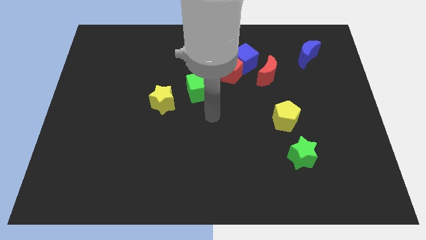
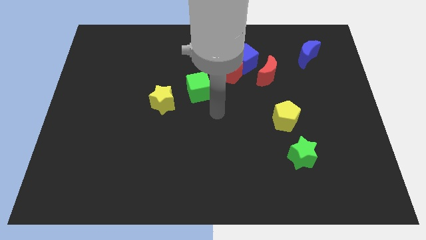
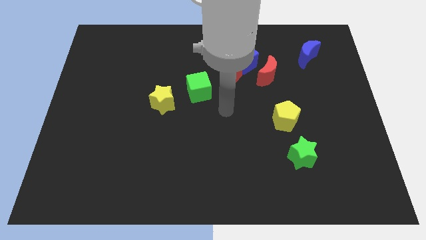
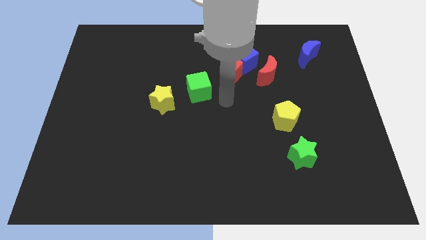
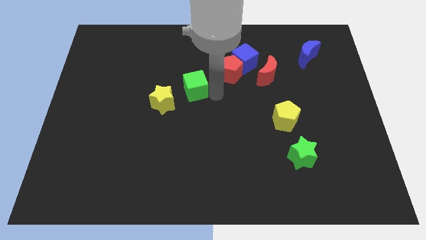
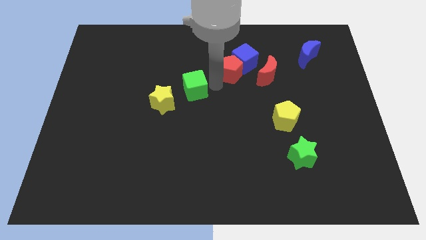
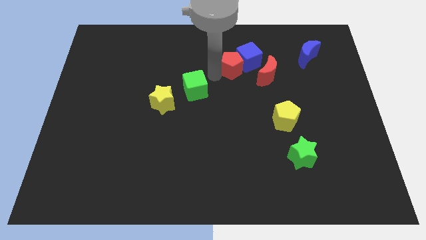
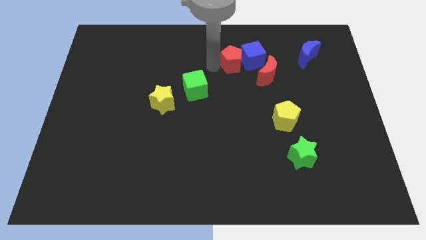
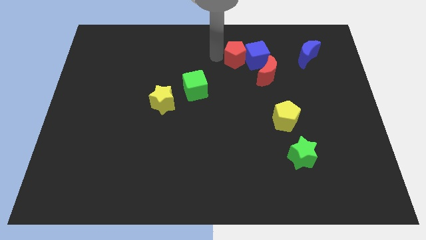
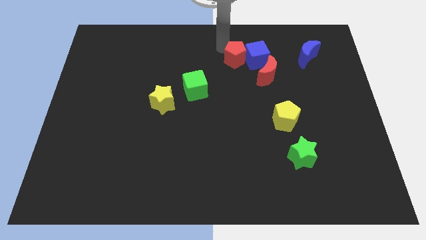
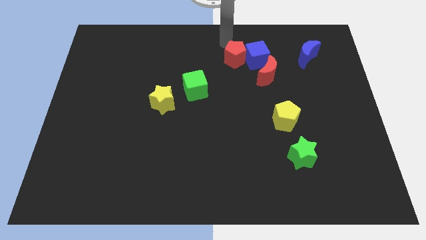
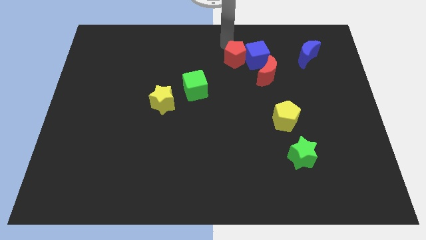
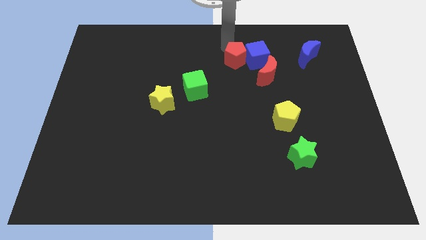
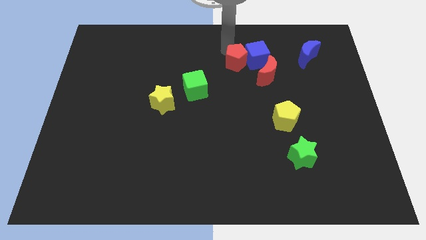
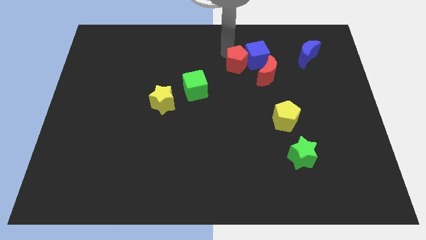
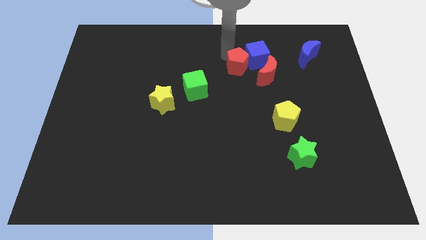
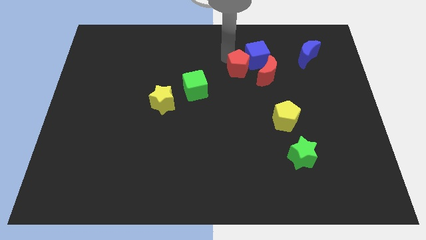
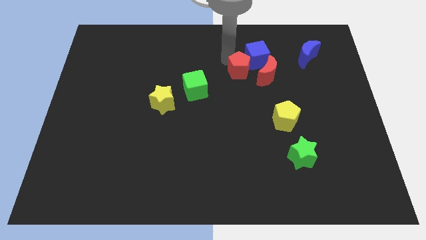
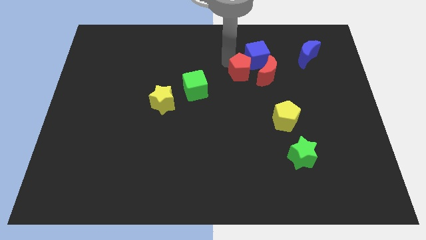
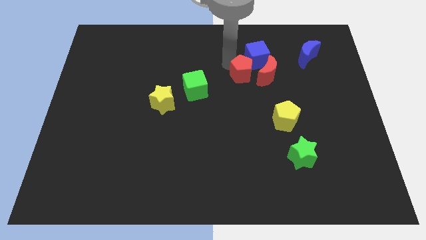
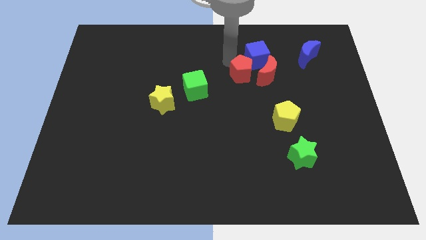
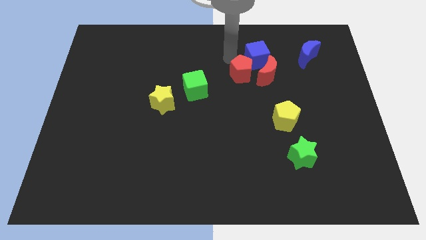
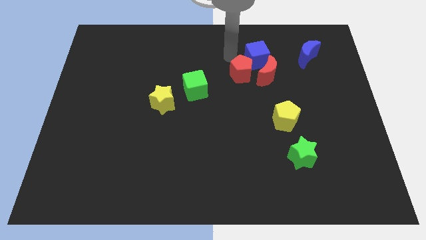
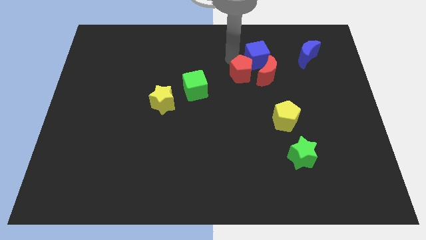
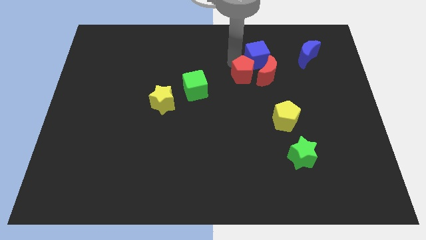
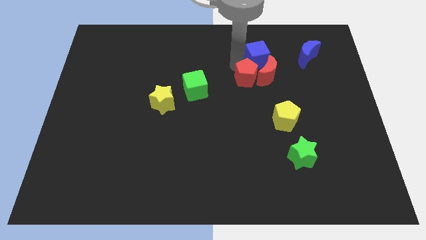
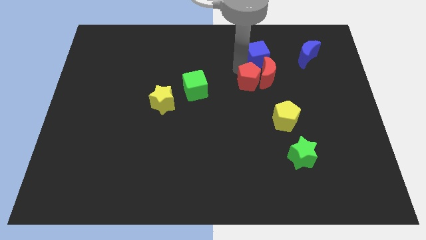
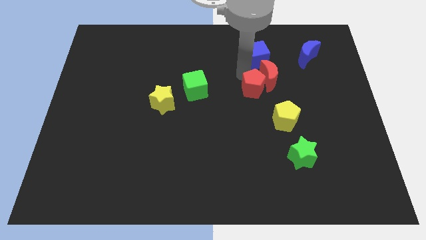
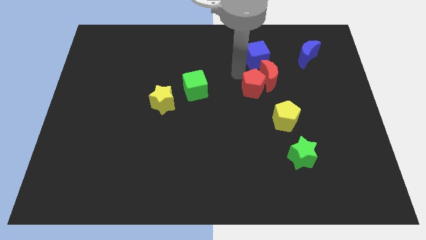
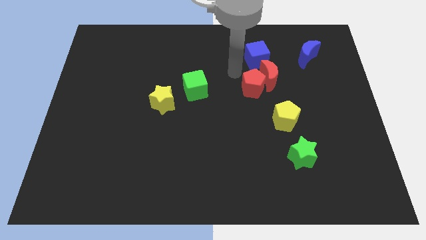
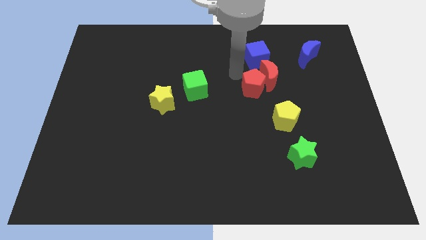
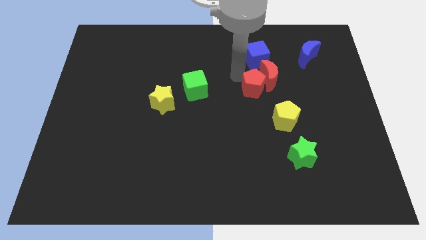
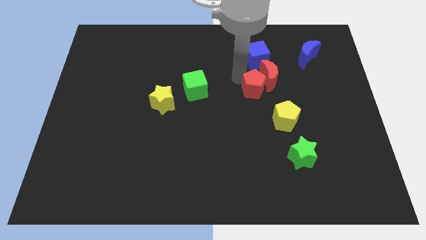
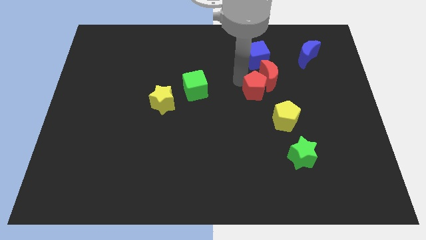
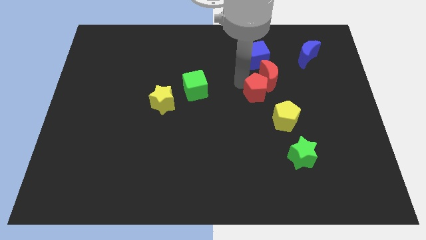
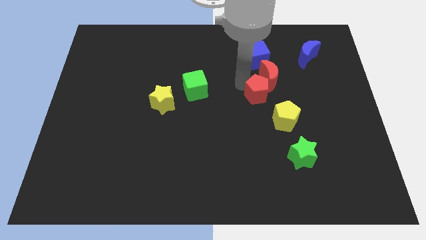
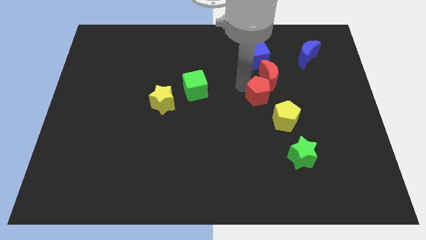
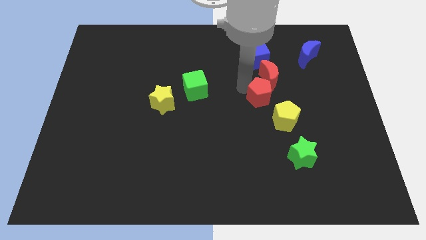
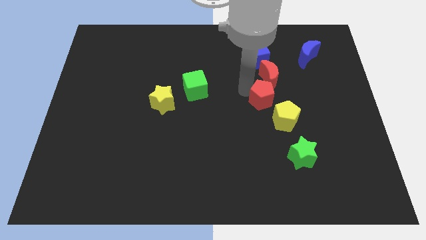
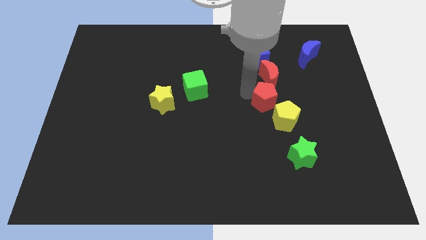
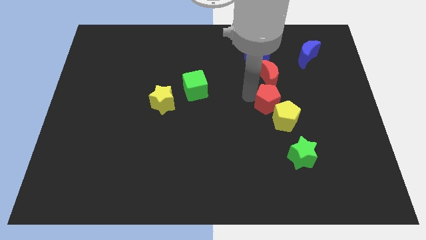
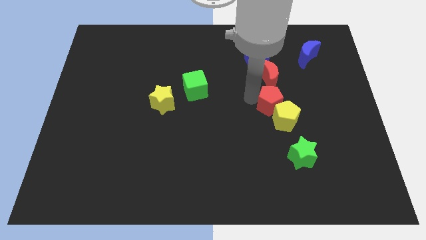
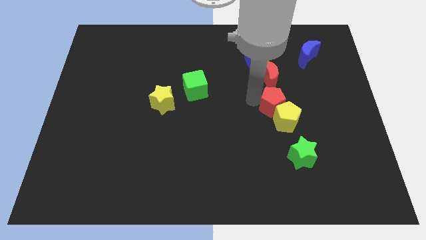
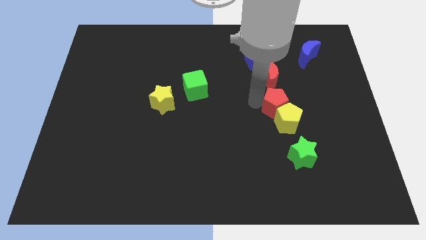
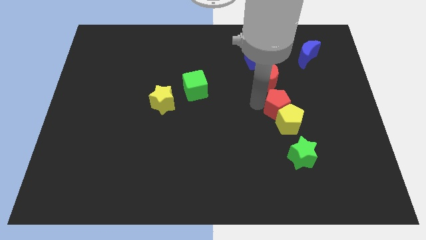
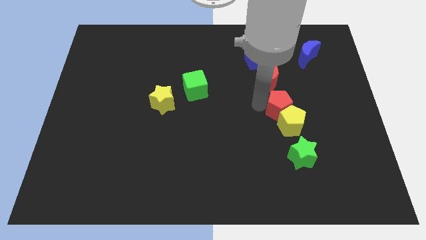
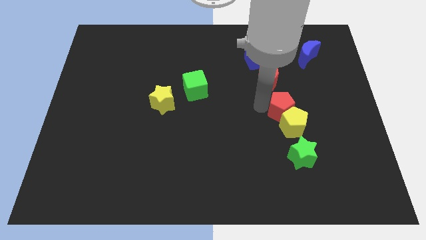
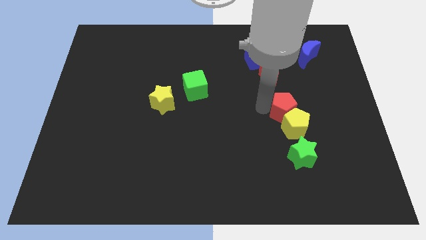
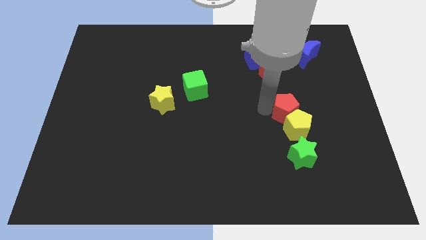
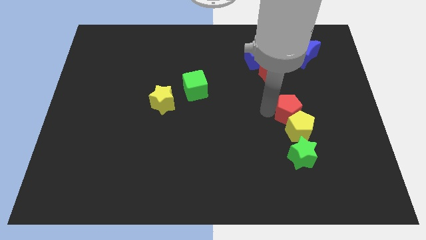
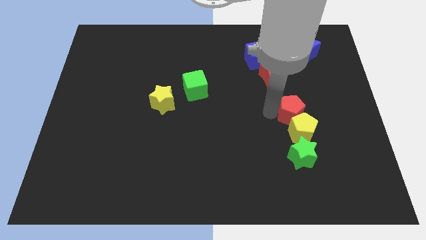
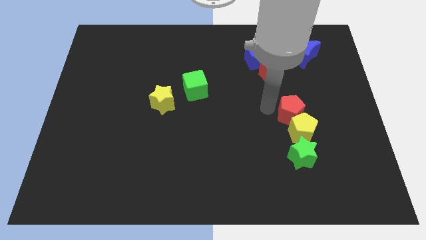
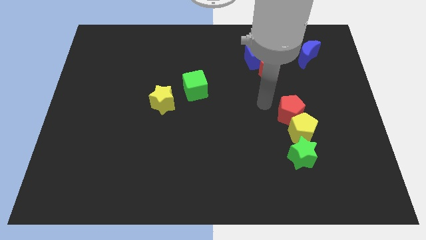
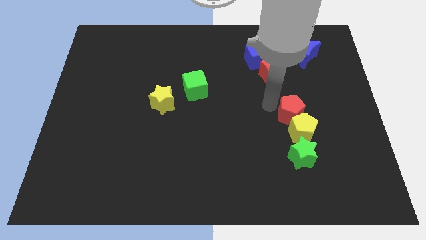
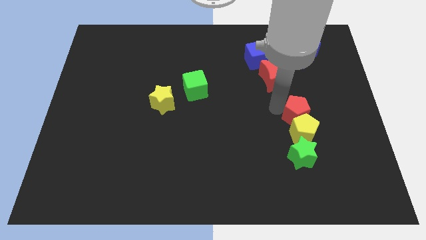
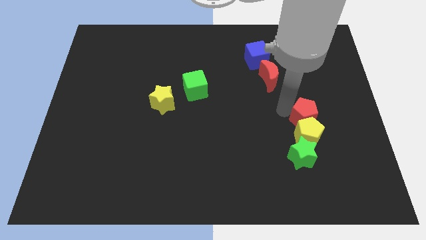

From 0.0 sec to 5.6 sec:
slide the red pentagon diagonally down and right

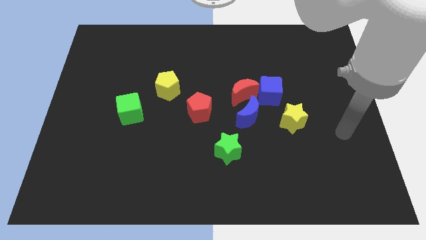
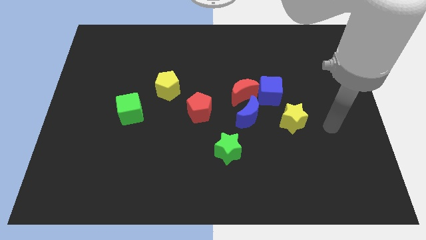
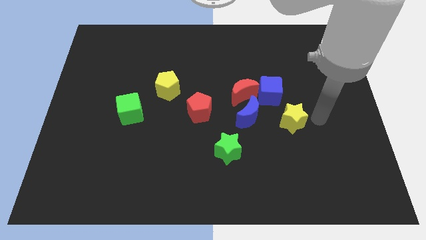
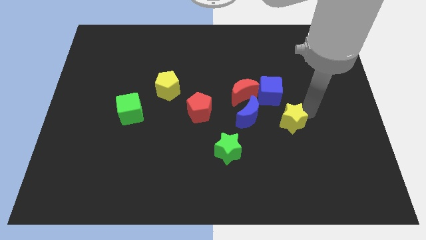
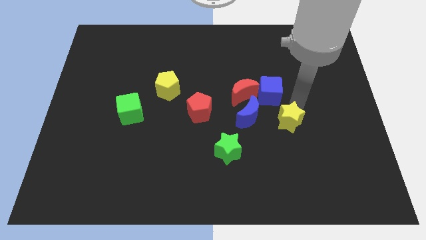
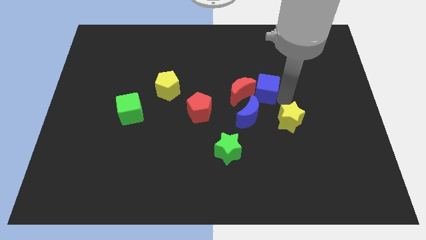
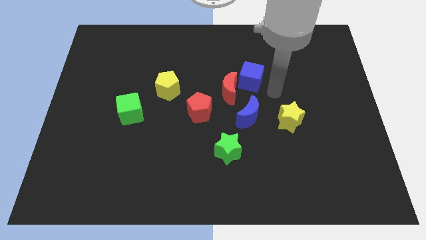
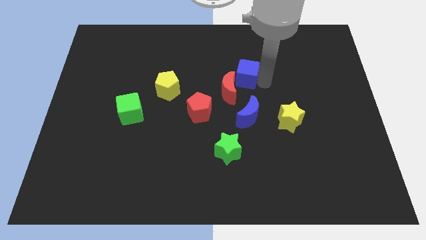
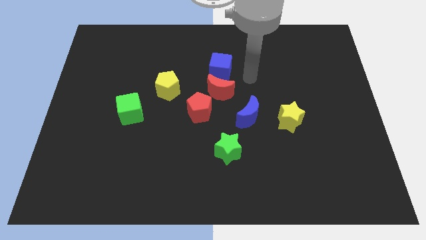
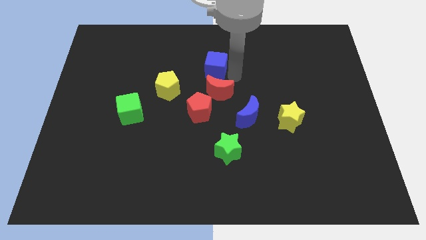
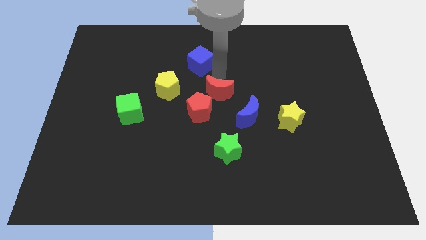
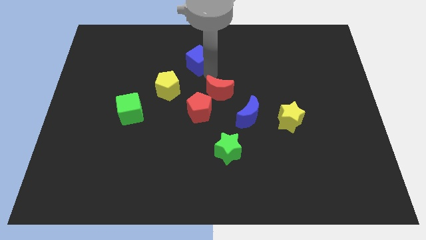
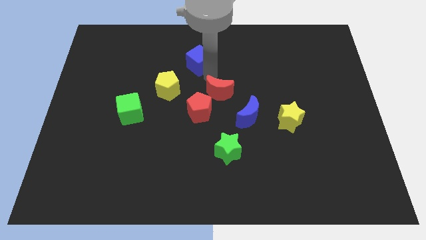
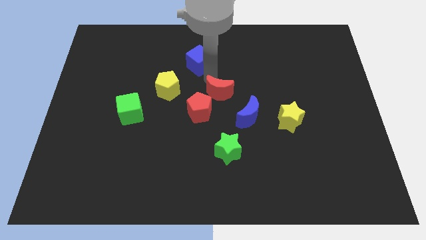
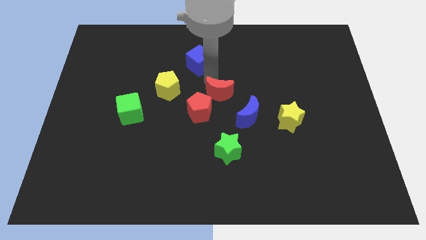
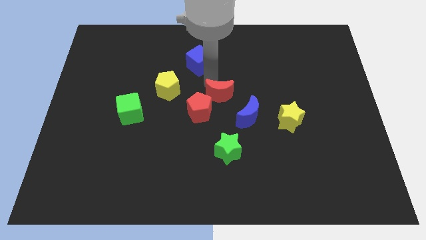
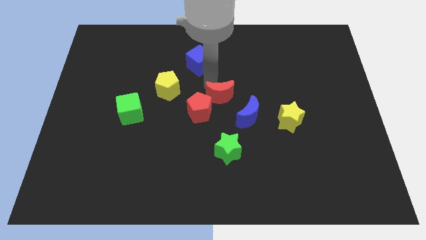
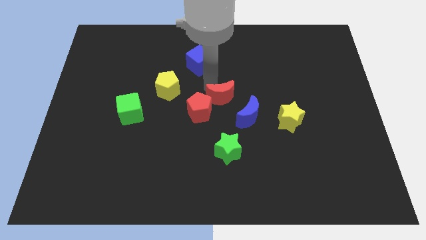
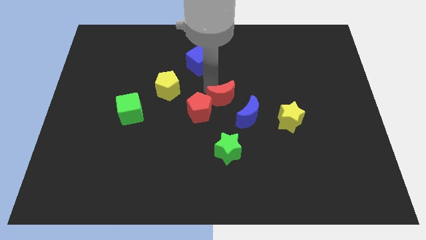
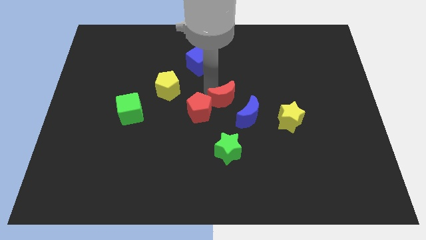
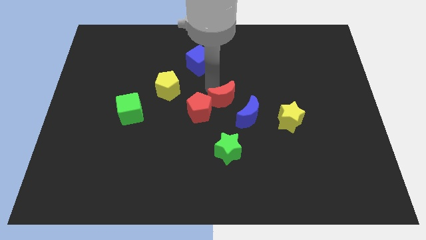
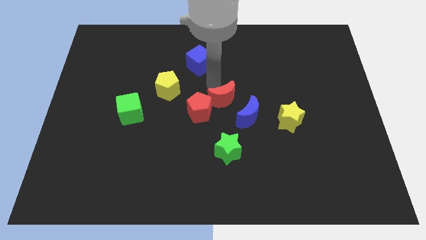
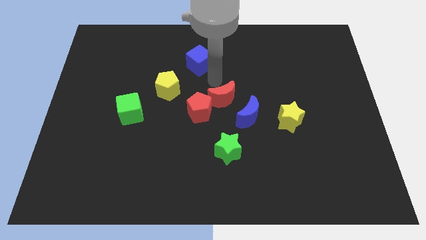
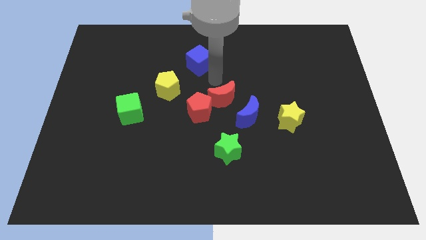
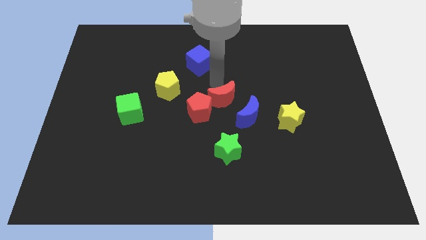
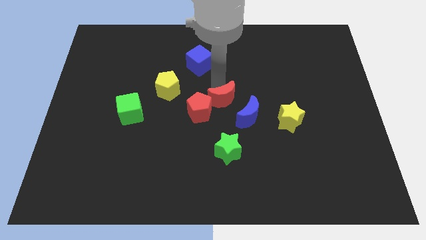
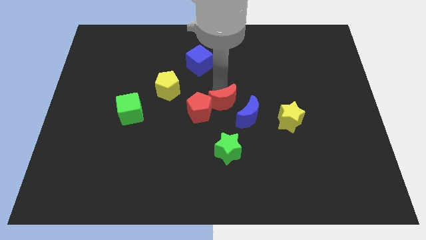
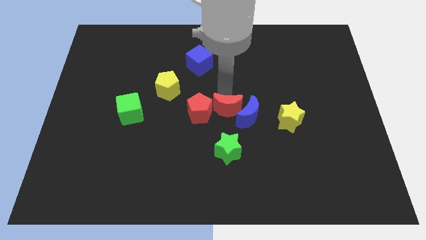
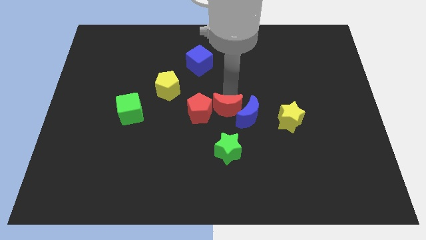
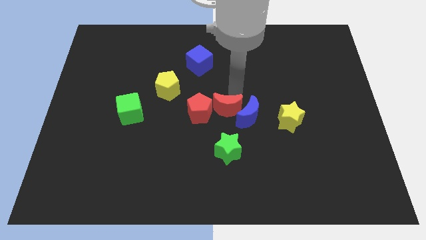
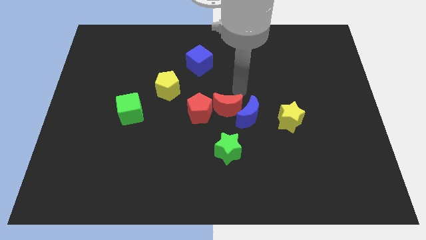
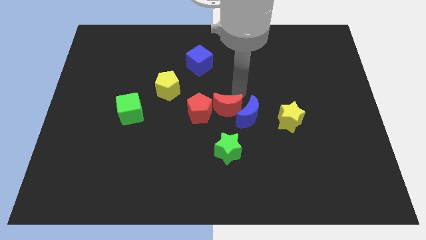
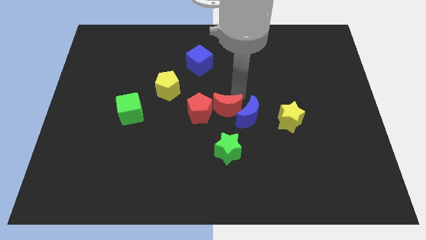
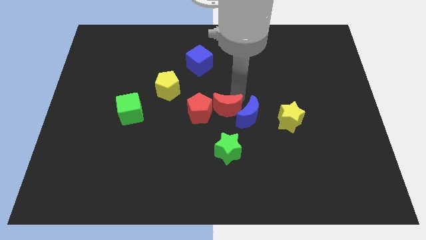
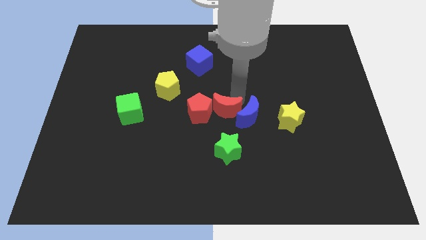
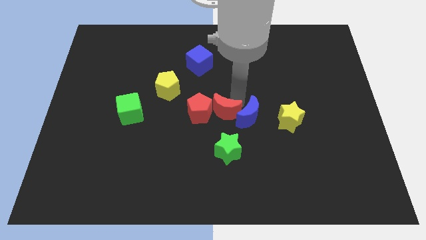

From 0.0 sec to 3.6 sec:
slightly push the red moon down and then to the left
